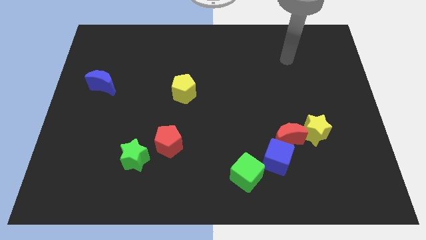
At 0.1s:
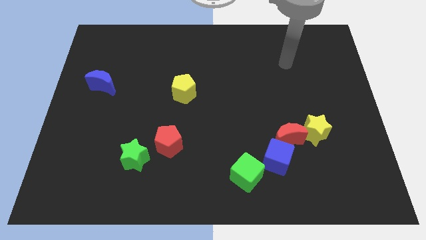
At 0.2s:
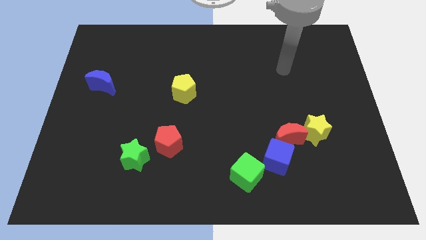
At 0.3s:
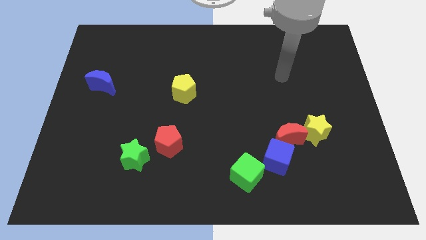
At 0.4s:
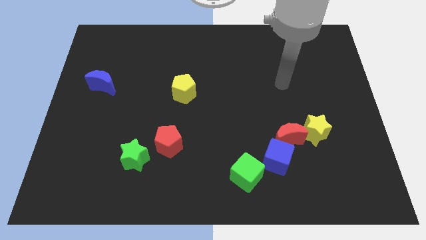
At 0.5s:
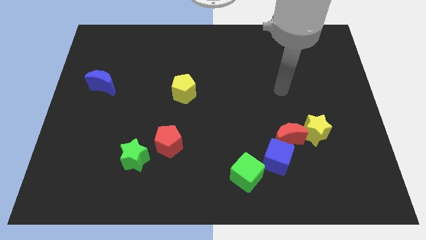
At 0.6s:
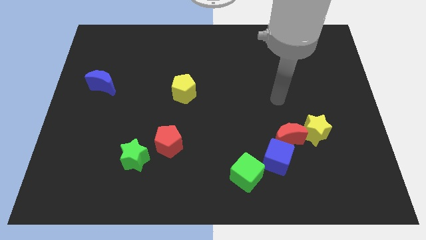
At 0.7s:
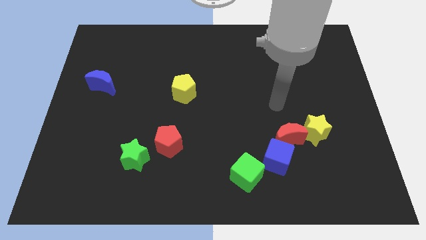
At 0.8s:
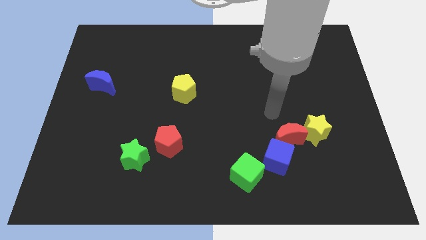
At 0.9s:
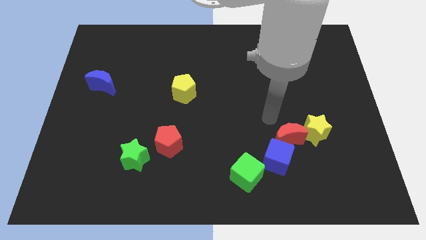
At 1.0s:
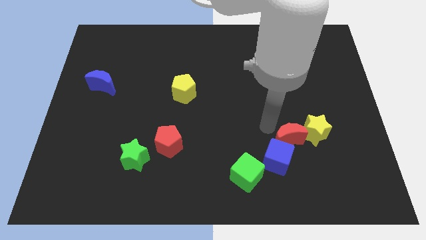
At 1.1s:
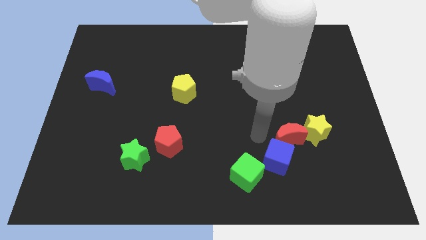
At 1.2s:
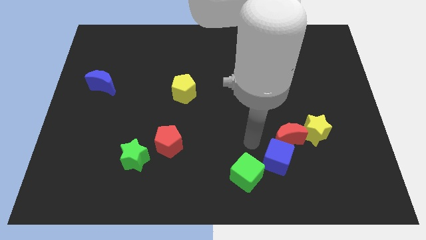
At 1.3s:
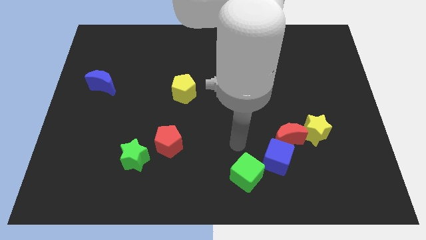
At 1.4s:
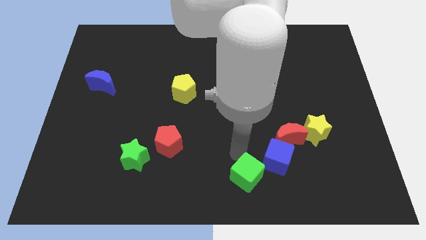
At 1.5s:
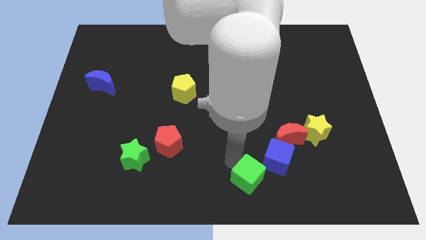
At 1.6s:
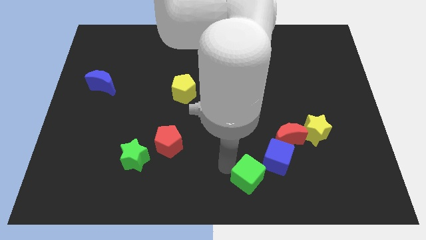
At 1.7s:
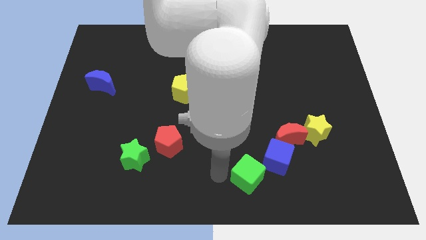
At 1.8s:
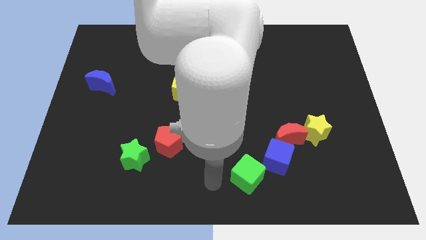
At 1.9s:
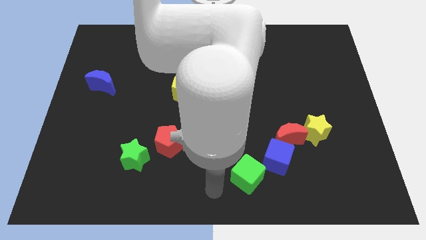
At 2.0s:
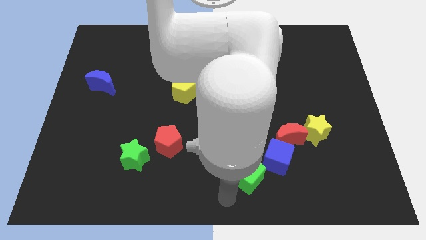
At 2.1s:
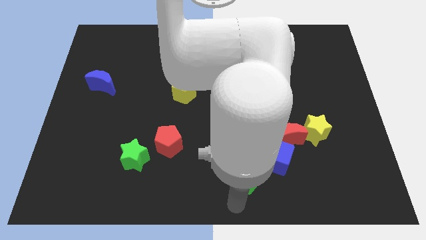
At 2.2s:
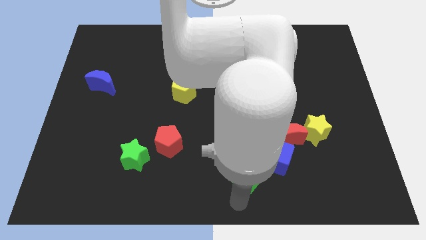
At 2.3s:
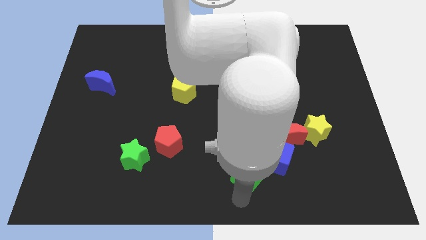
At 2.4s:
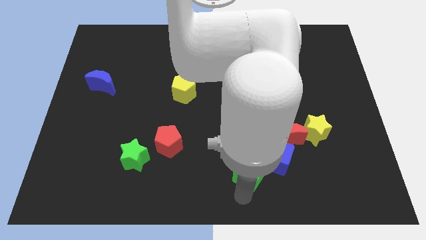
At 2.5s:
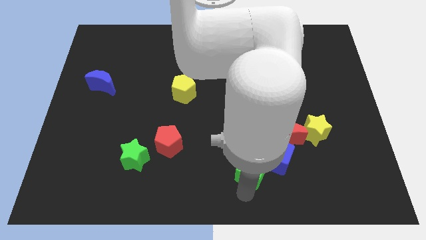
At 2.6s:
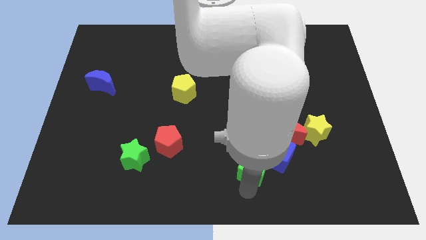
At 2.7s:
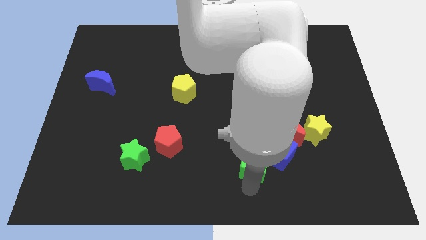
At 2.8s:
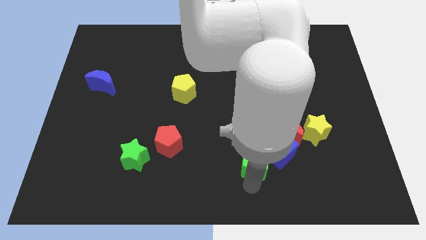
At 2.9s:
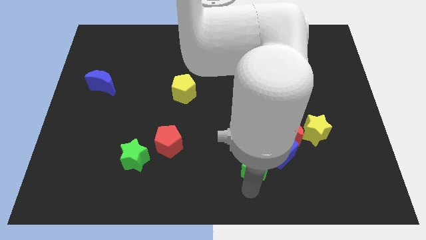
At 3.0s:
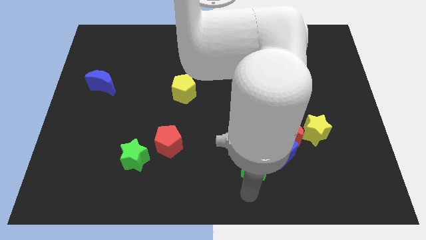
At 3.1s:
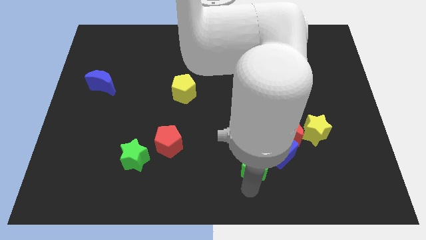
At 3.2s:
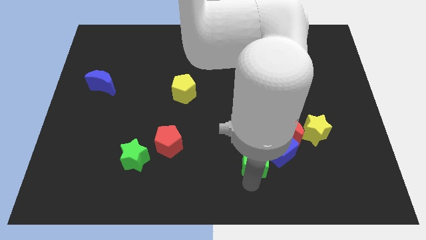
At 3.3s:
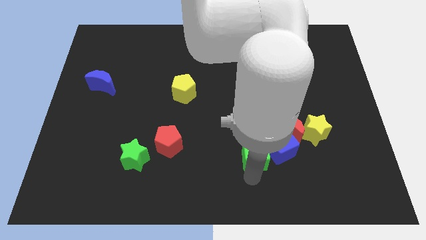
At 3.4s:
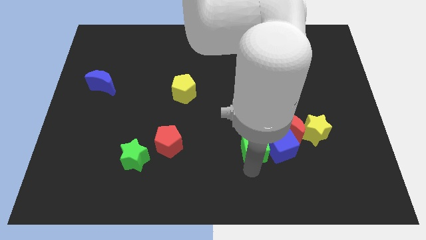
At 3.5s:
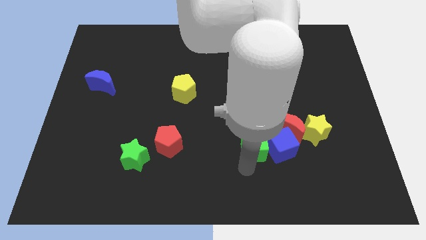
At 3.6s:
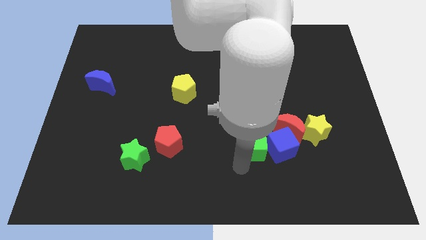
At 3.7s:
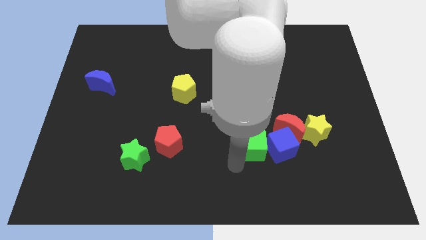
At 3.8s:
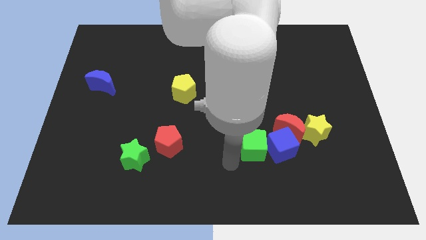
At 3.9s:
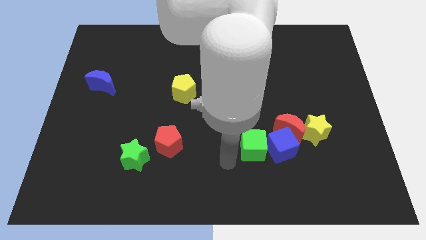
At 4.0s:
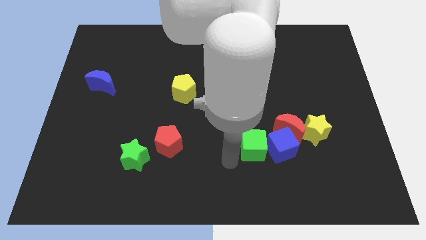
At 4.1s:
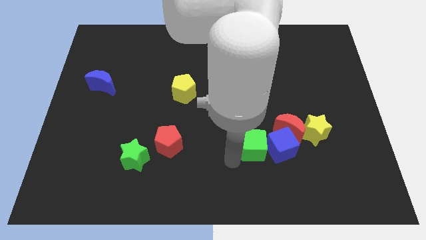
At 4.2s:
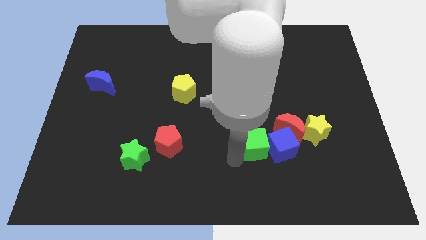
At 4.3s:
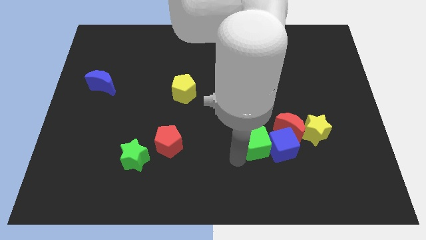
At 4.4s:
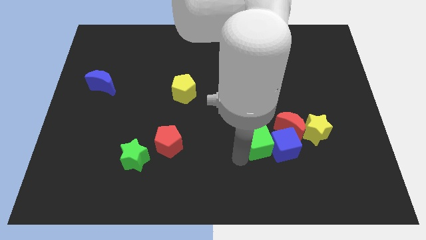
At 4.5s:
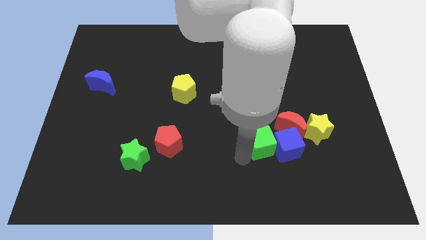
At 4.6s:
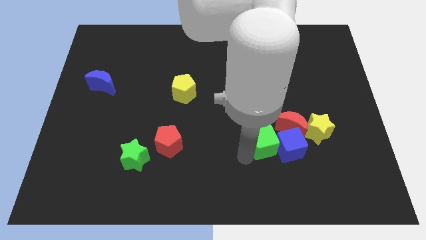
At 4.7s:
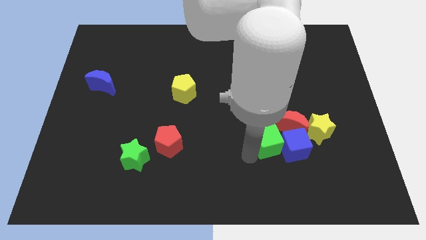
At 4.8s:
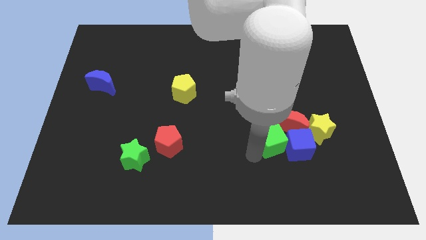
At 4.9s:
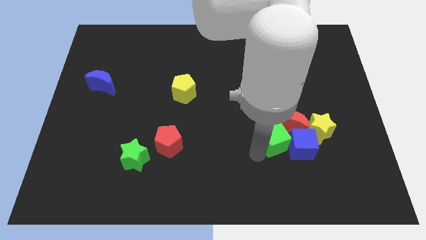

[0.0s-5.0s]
move the green cube towards the red moon

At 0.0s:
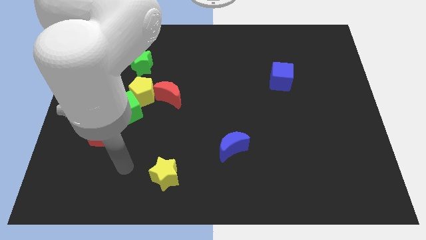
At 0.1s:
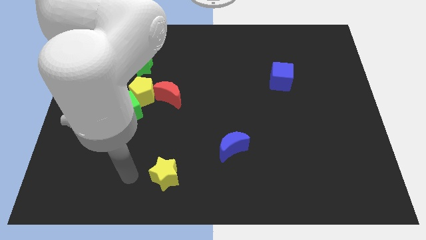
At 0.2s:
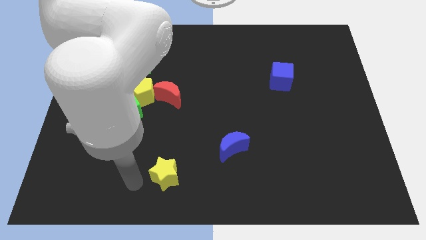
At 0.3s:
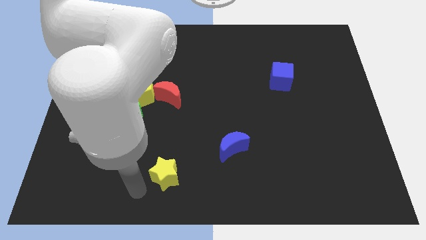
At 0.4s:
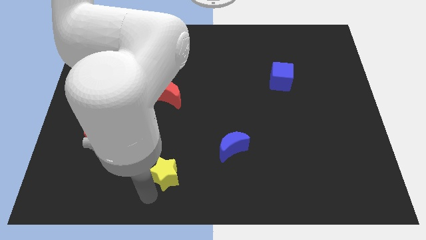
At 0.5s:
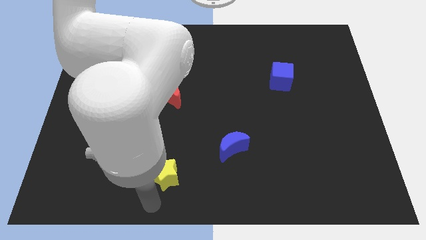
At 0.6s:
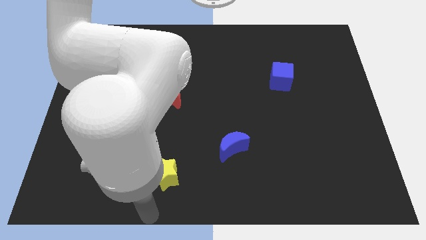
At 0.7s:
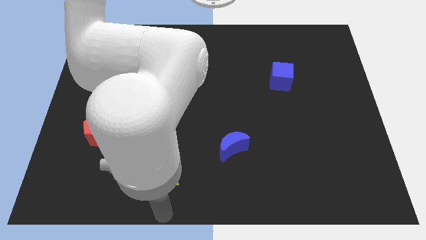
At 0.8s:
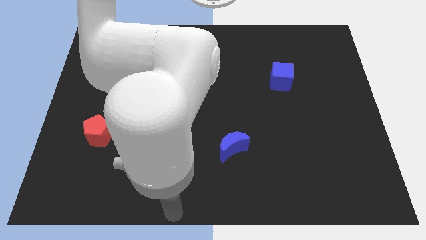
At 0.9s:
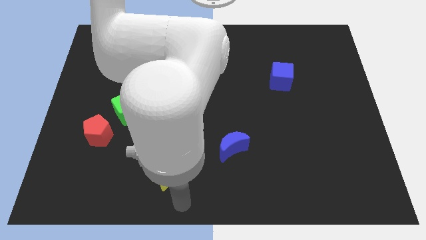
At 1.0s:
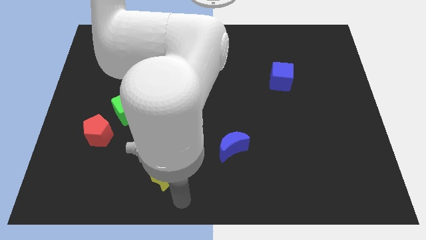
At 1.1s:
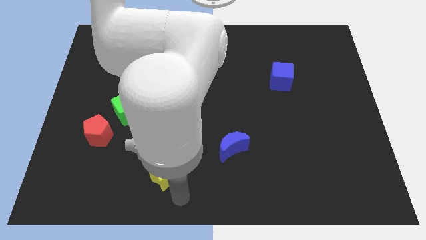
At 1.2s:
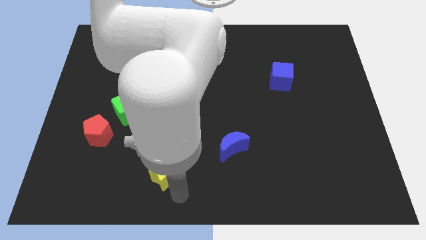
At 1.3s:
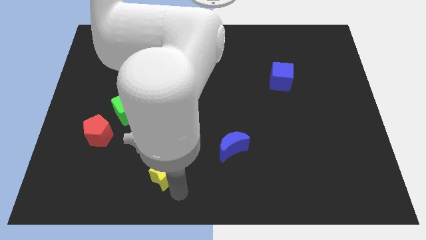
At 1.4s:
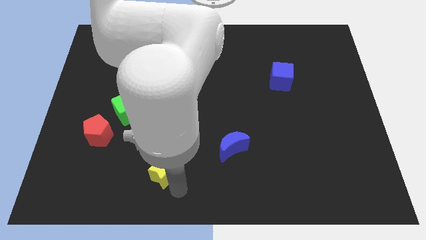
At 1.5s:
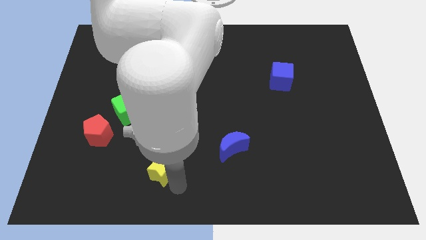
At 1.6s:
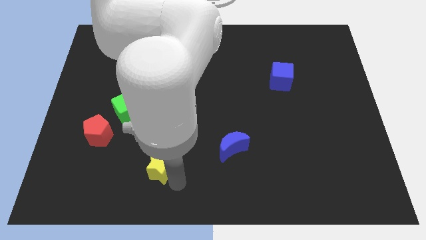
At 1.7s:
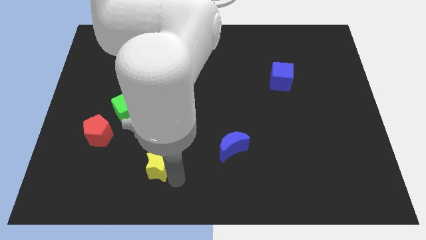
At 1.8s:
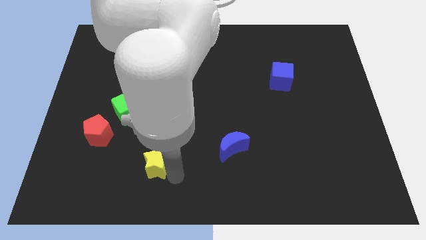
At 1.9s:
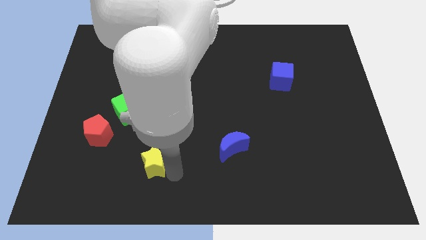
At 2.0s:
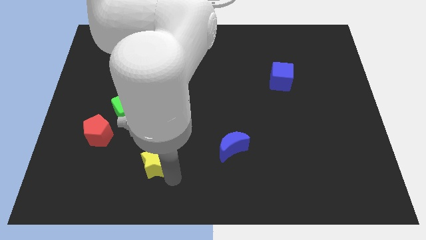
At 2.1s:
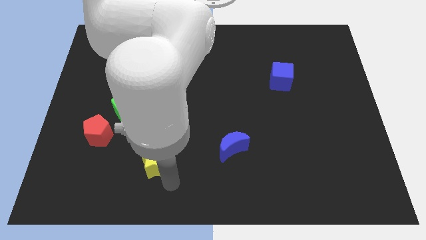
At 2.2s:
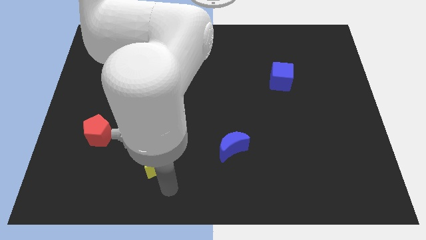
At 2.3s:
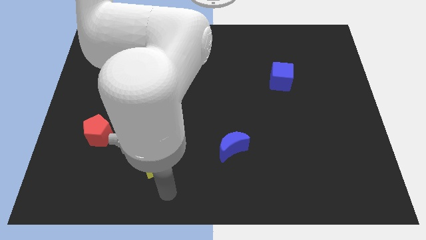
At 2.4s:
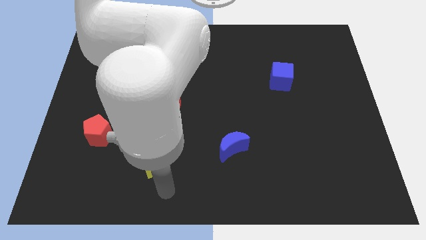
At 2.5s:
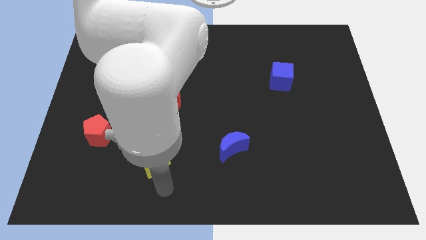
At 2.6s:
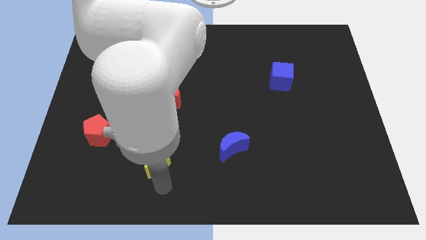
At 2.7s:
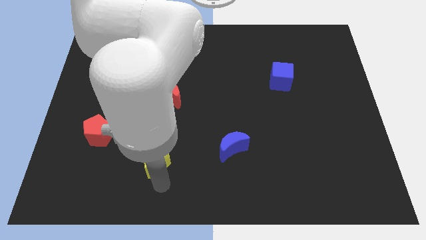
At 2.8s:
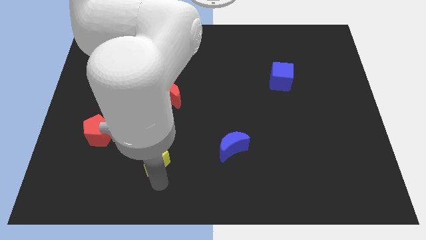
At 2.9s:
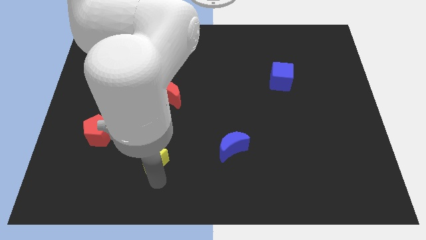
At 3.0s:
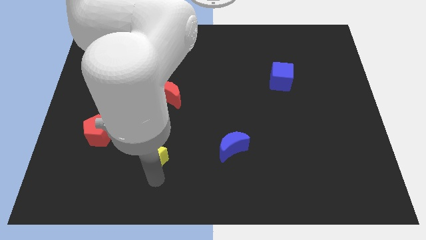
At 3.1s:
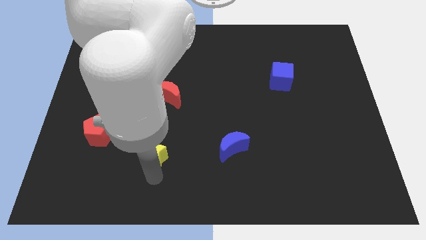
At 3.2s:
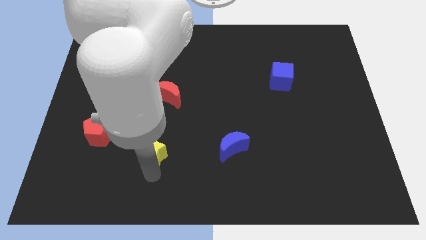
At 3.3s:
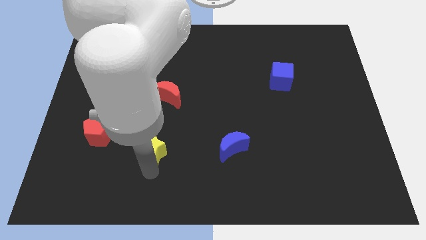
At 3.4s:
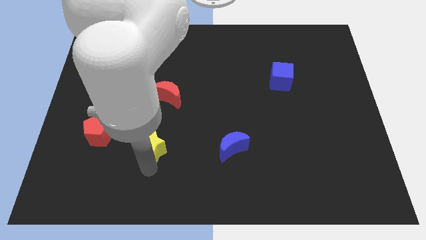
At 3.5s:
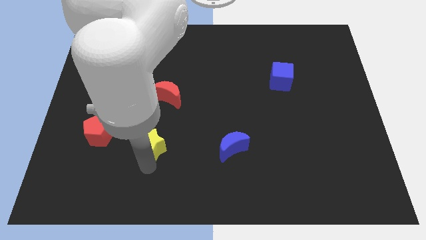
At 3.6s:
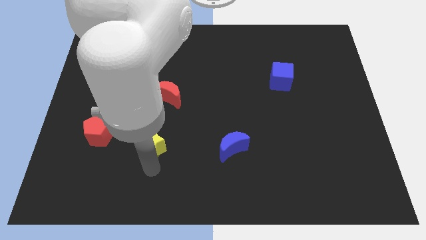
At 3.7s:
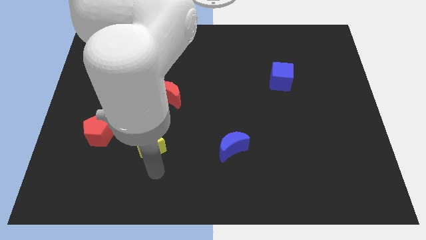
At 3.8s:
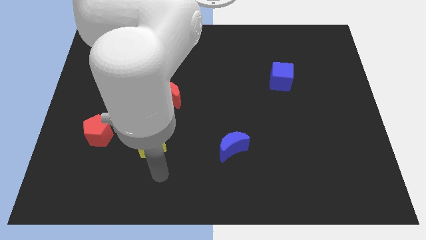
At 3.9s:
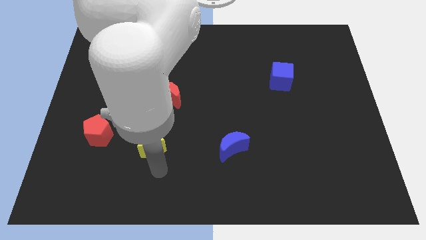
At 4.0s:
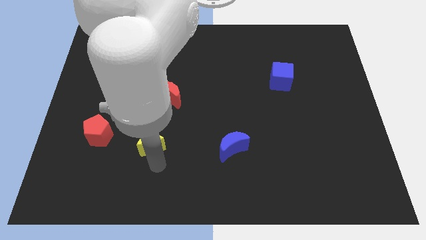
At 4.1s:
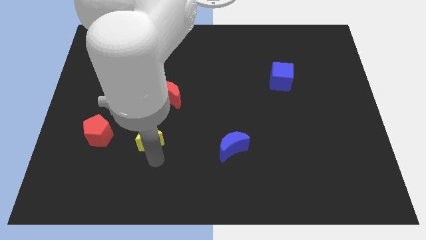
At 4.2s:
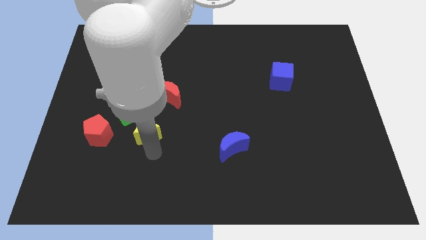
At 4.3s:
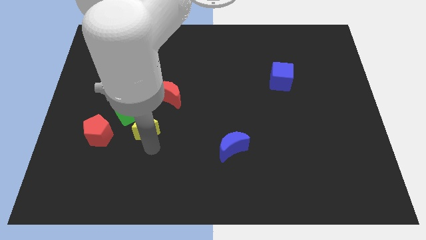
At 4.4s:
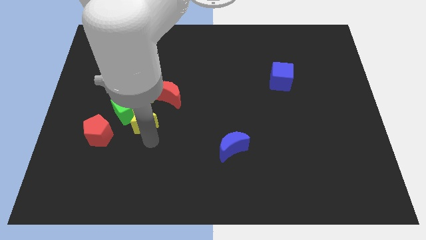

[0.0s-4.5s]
move the yellow star close to the green cube
